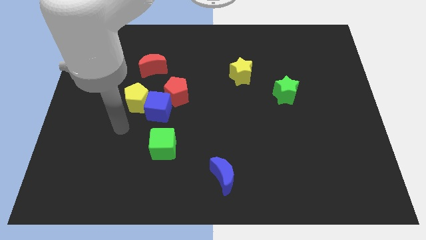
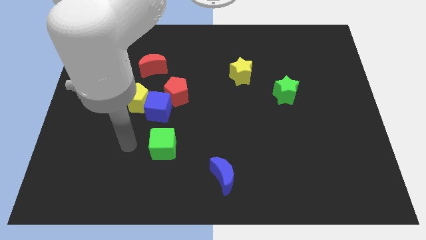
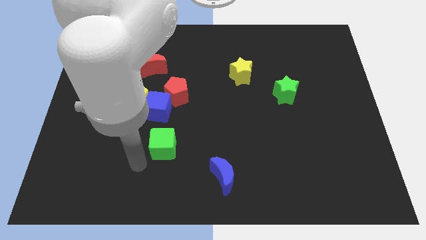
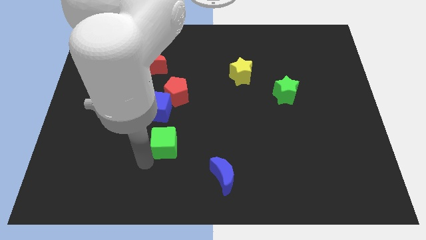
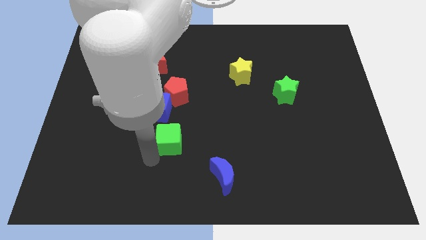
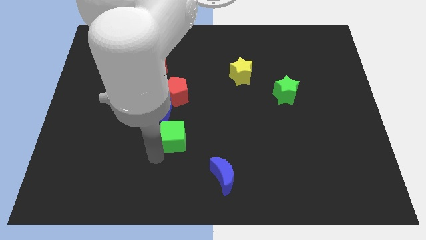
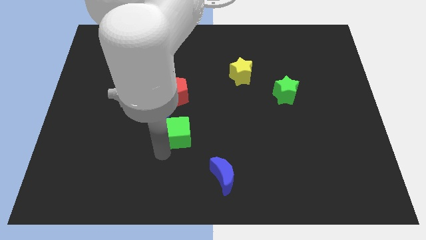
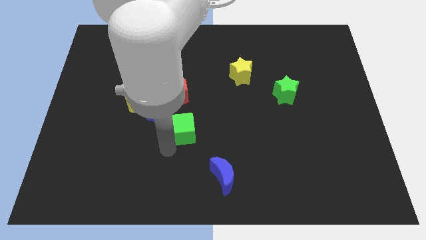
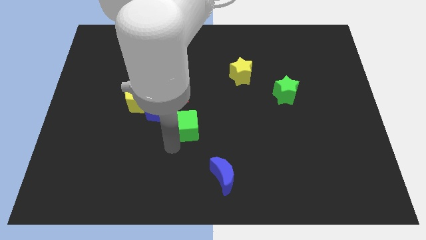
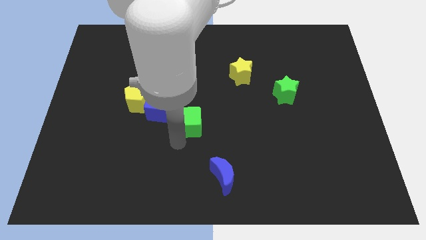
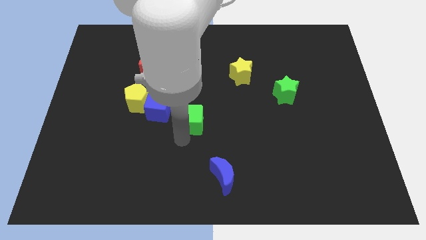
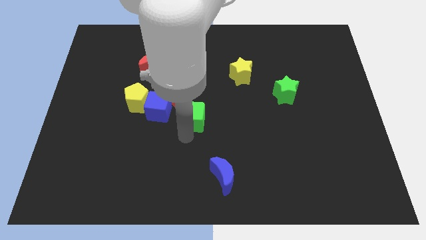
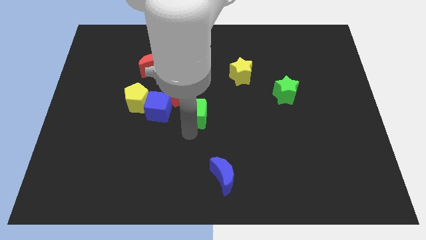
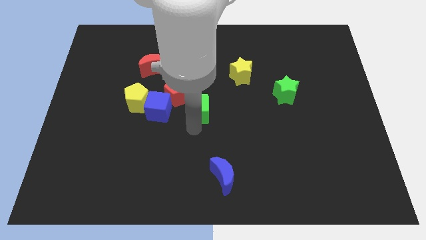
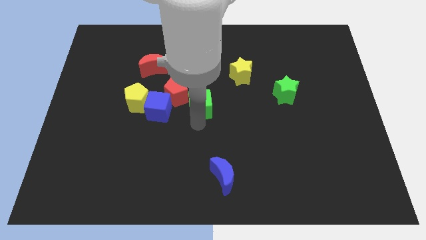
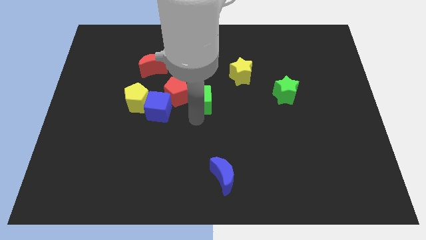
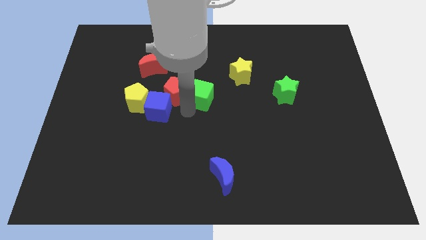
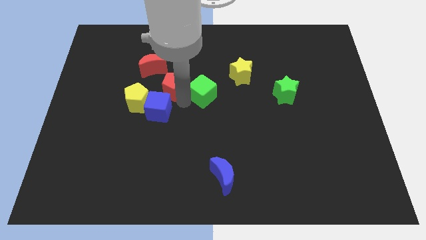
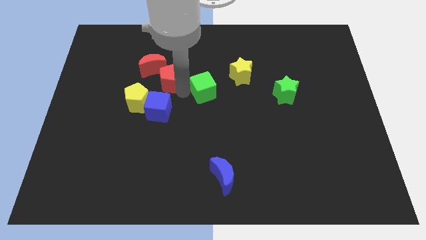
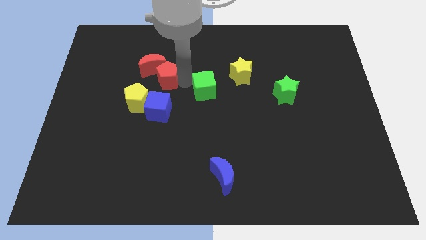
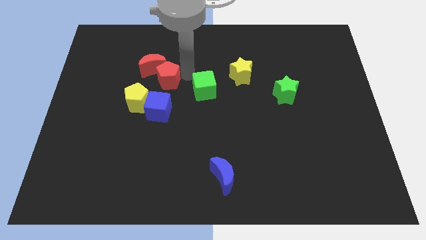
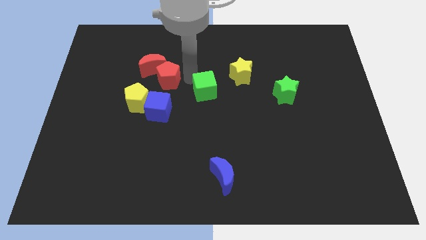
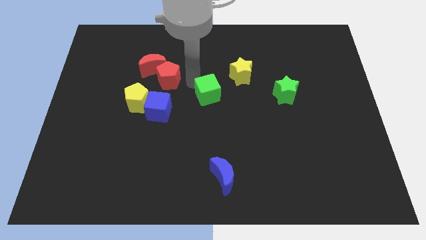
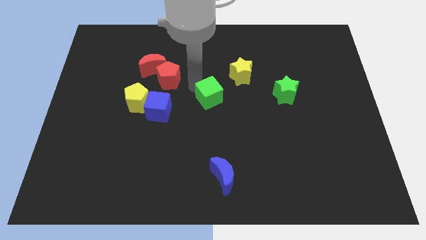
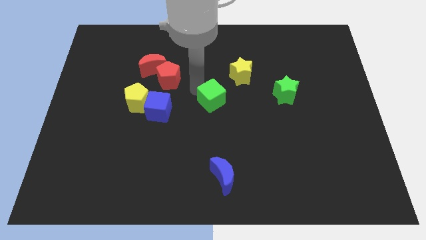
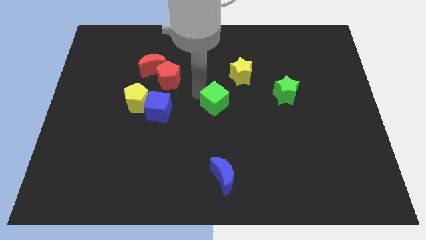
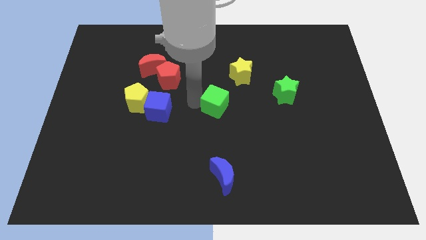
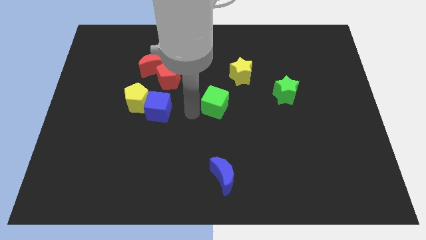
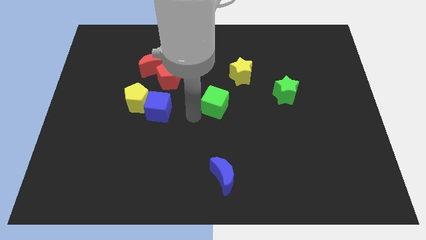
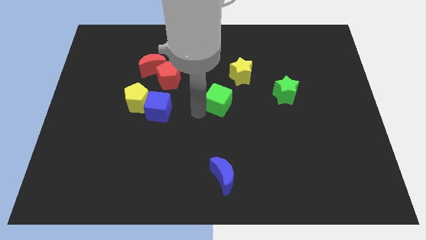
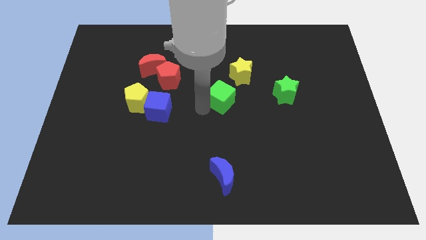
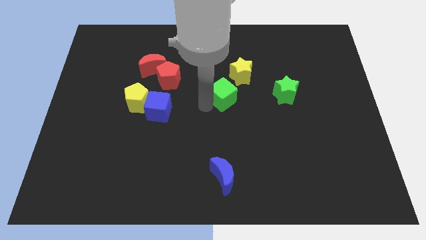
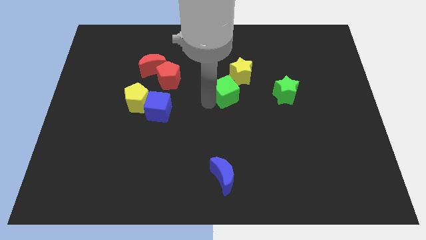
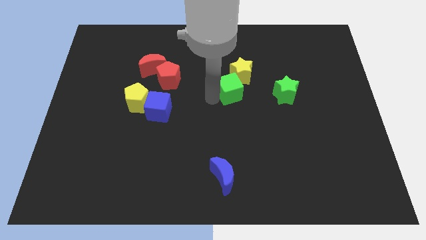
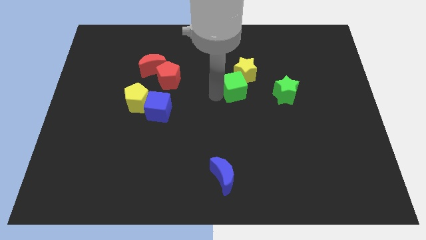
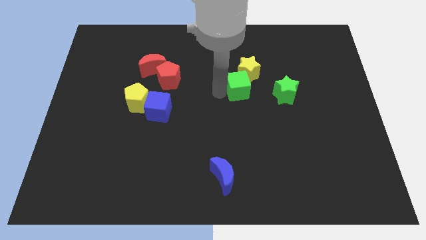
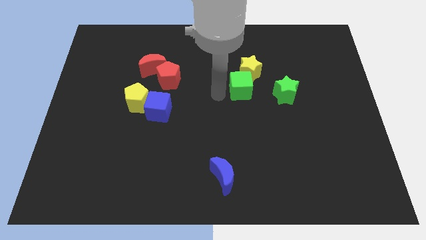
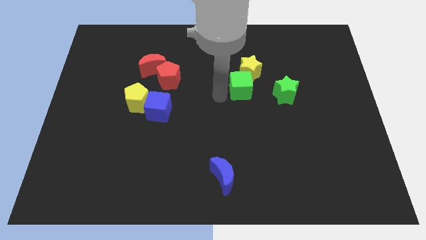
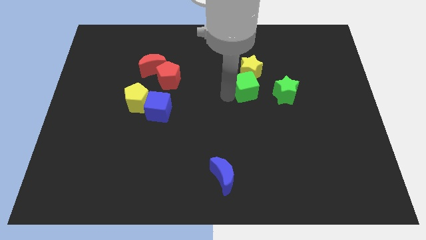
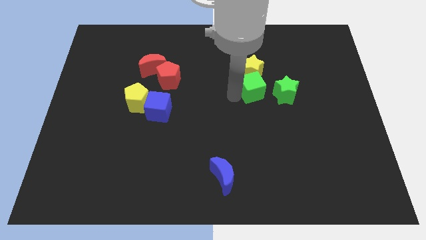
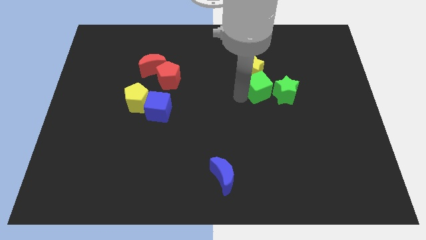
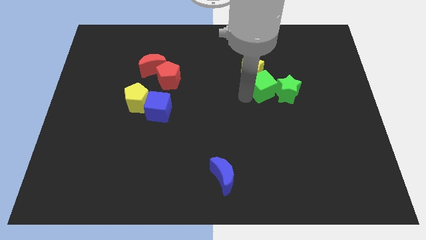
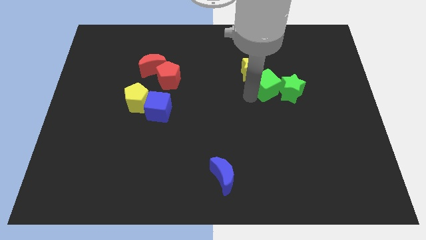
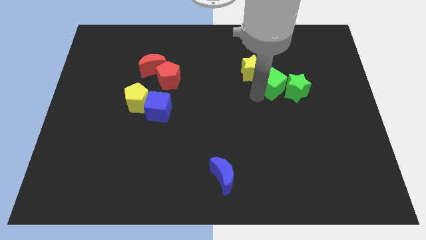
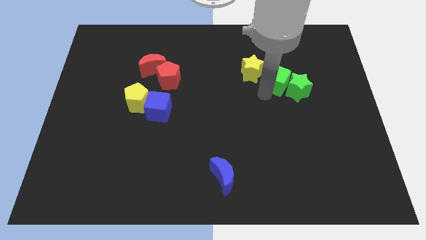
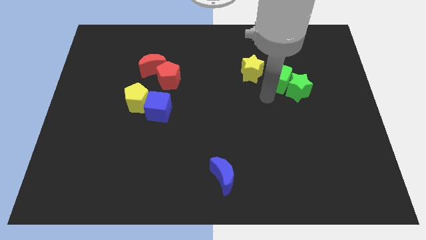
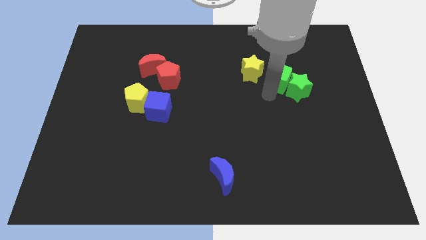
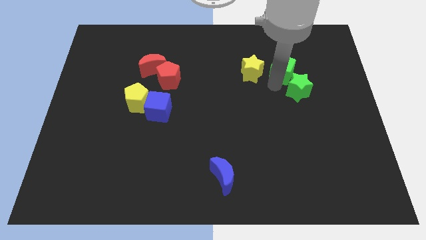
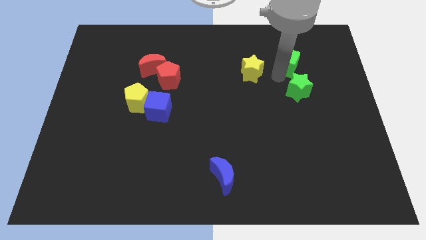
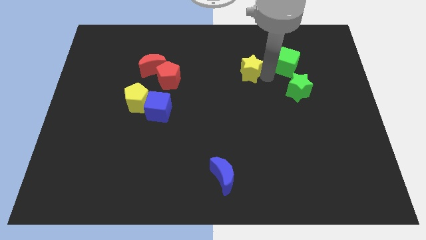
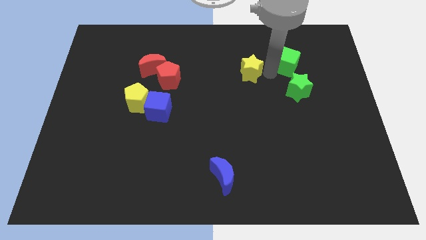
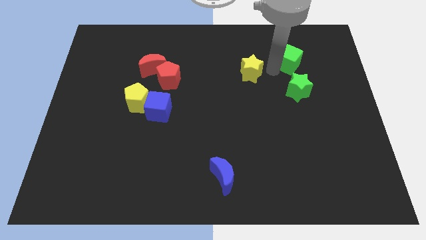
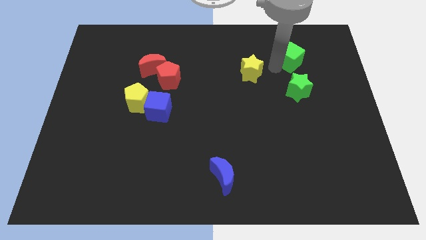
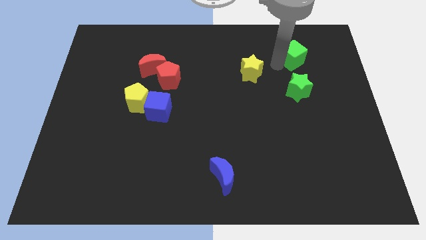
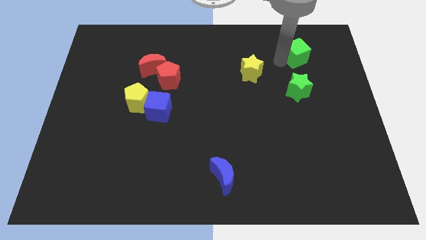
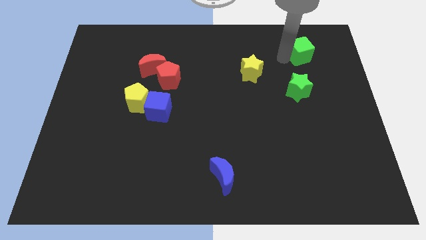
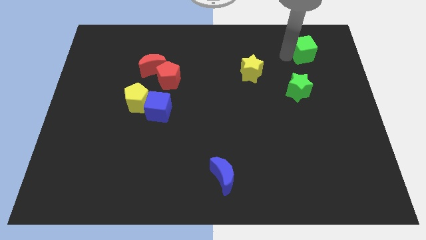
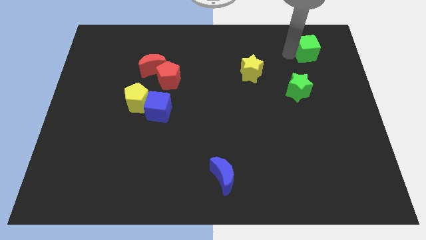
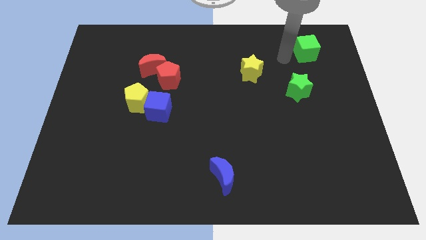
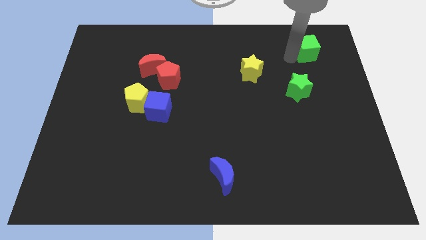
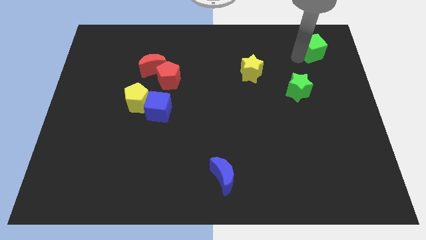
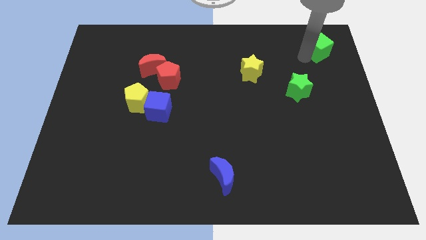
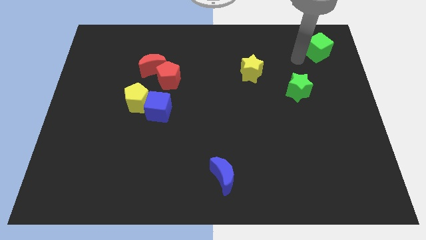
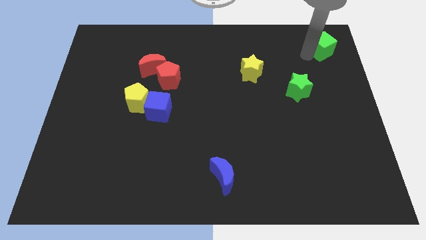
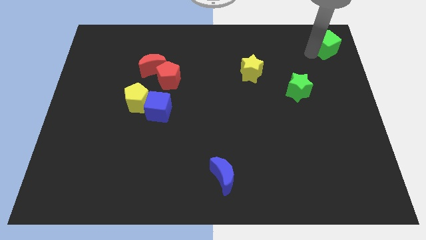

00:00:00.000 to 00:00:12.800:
slide the green cube to the top right corner

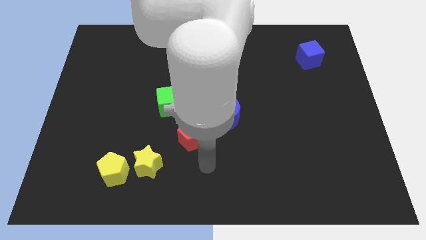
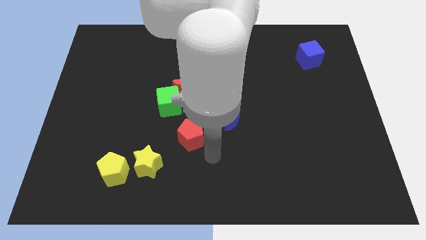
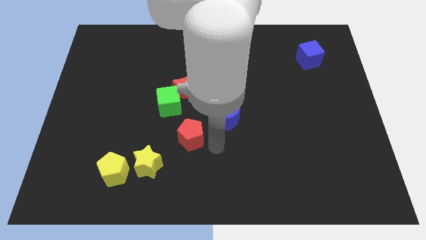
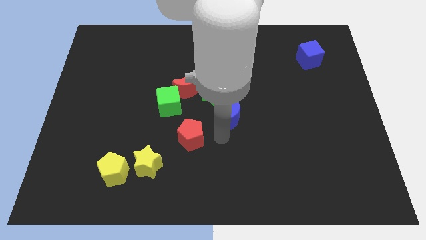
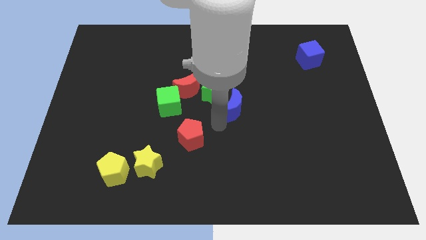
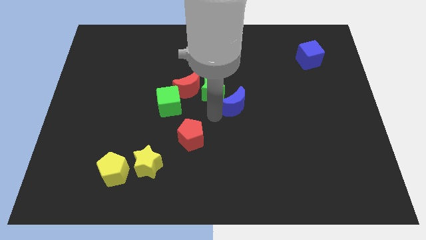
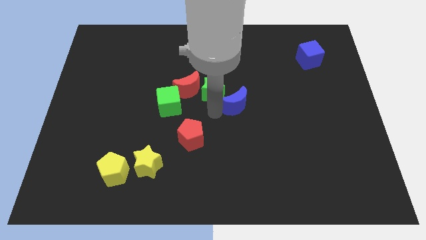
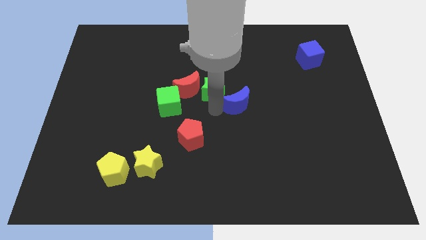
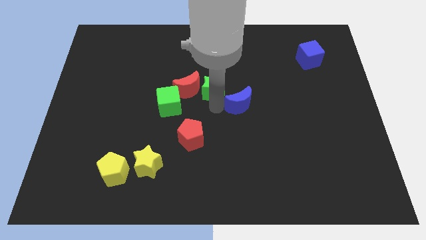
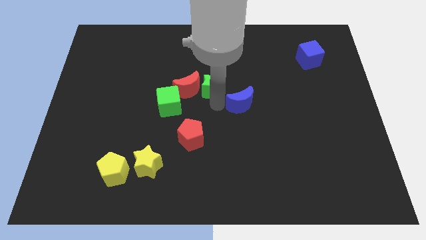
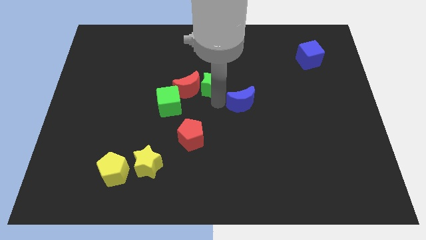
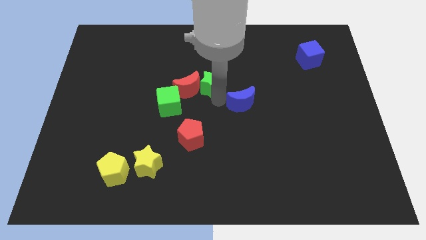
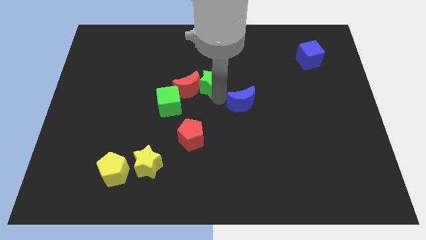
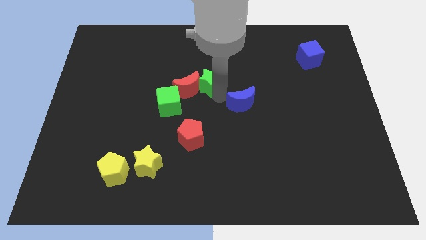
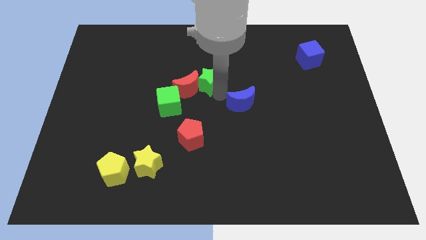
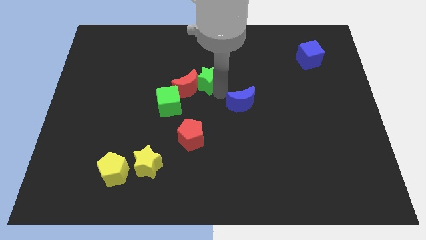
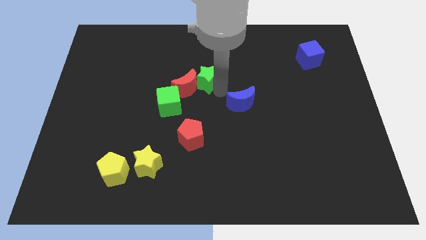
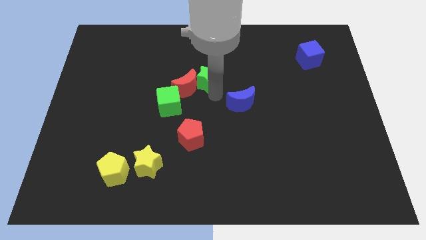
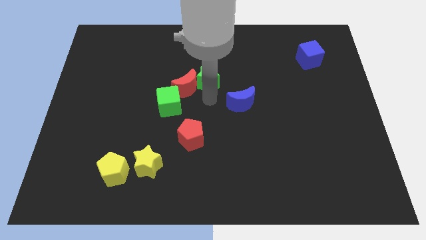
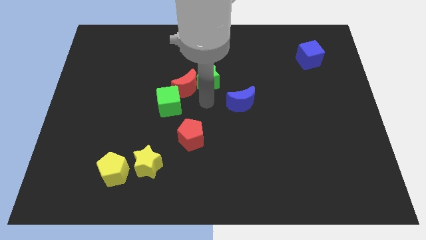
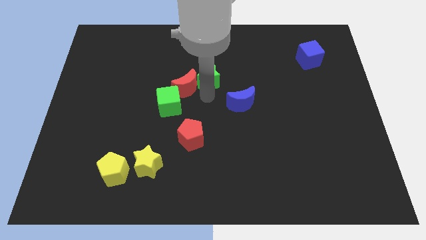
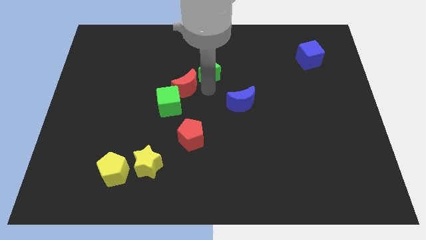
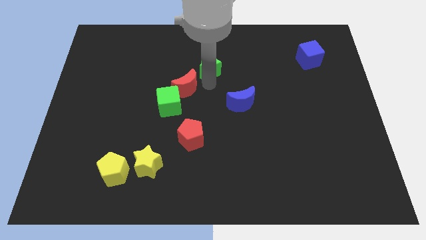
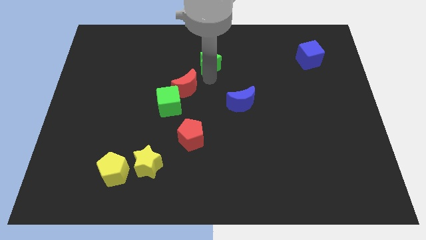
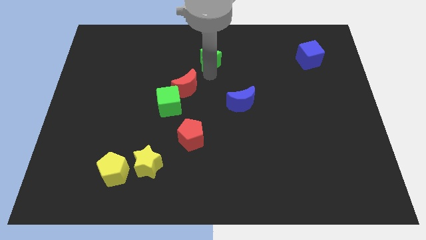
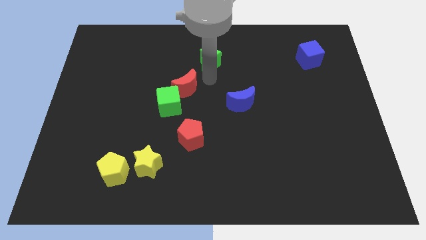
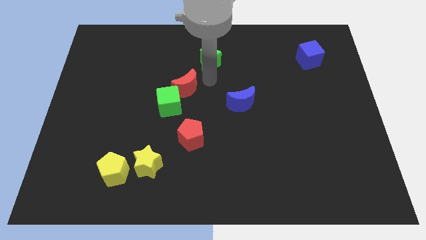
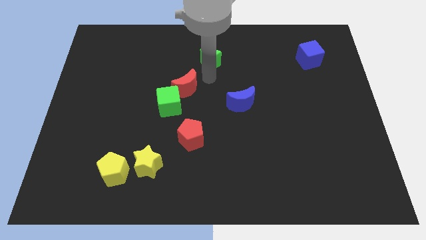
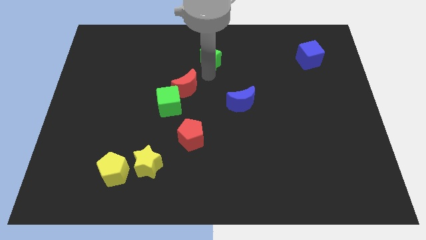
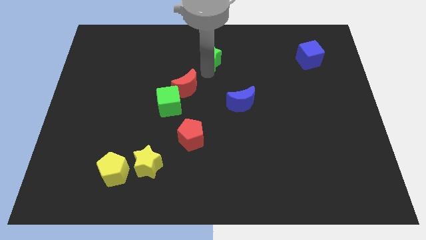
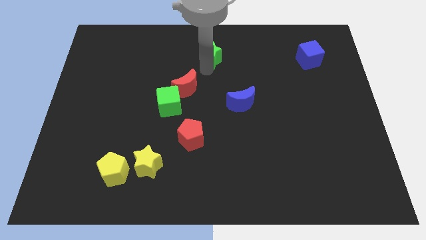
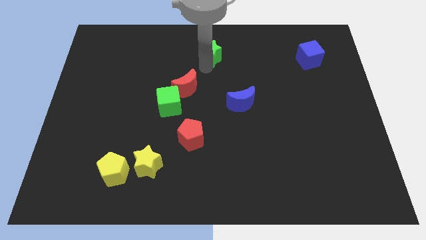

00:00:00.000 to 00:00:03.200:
slide the green star to the top side
